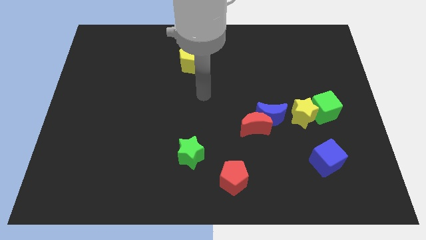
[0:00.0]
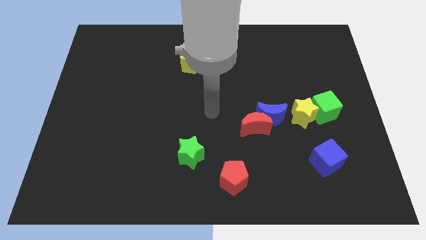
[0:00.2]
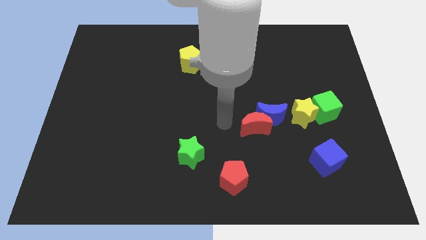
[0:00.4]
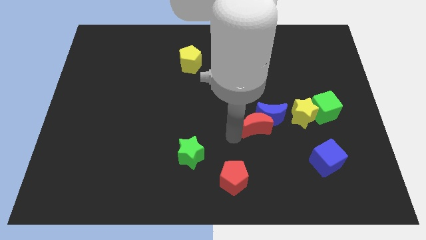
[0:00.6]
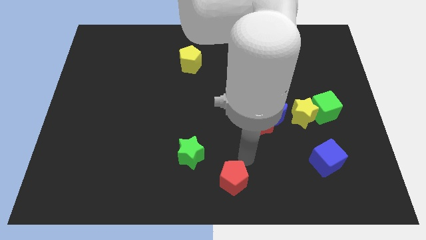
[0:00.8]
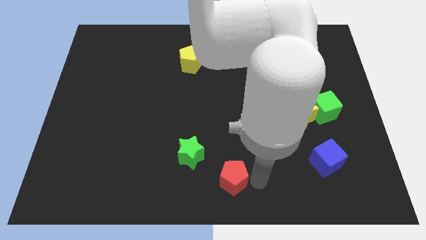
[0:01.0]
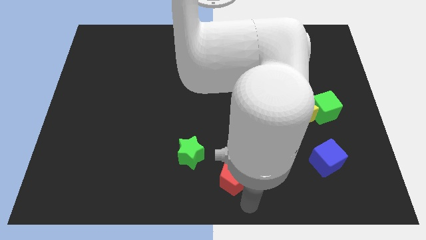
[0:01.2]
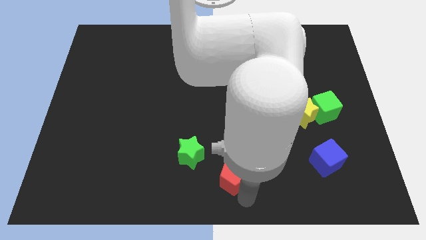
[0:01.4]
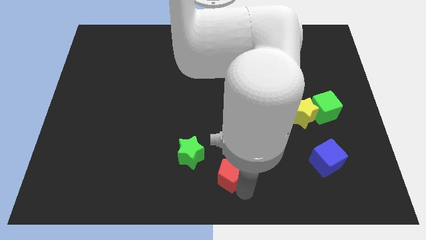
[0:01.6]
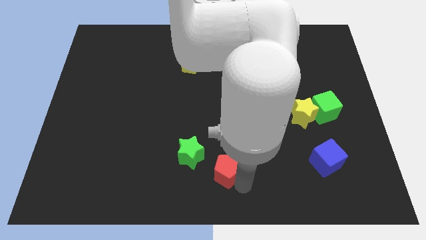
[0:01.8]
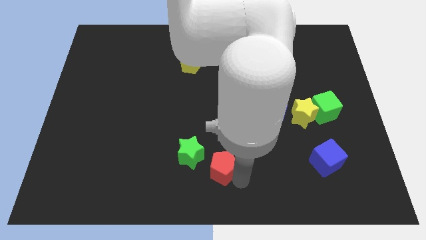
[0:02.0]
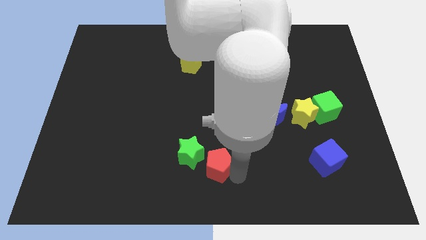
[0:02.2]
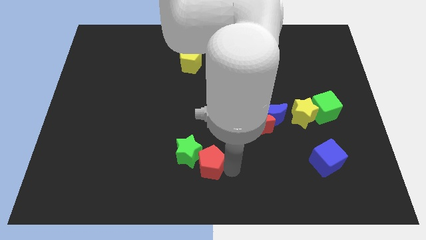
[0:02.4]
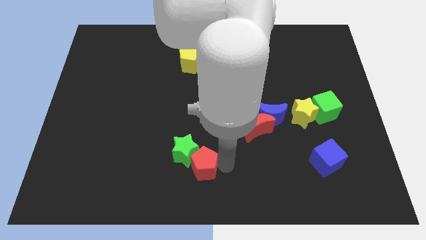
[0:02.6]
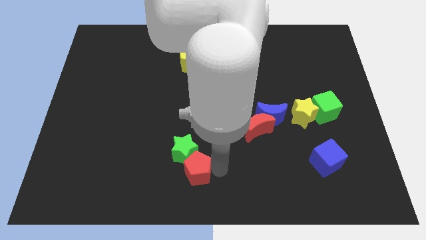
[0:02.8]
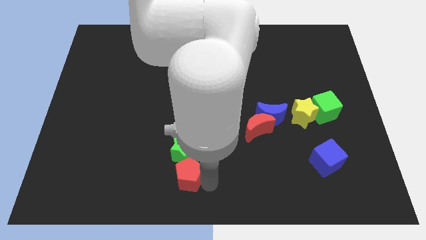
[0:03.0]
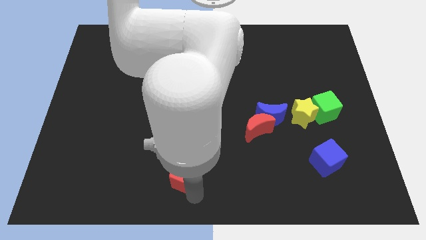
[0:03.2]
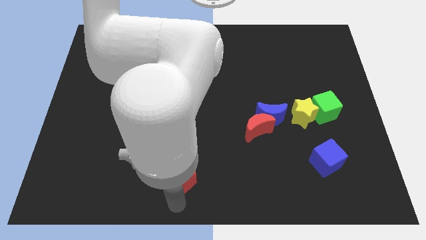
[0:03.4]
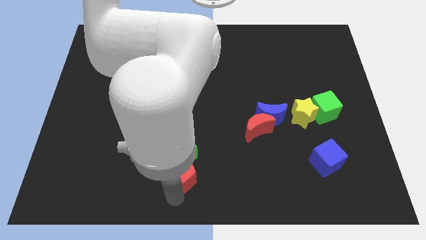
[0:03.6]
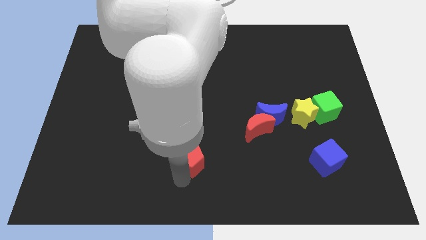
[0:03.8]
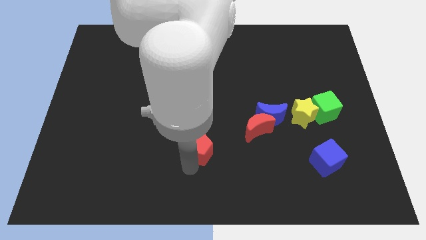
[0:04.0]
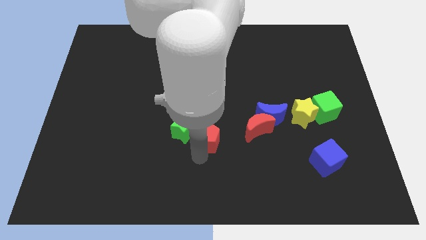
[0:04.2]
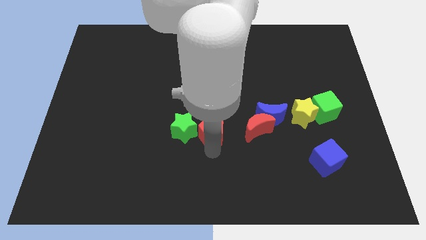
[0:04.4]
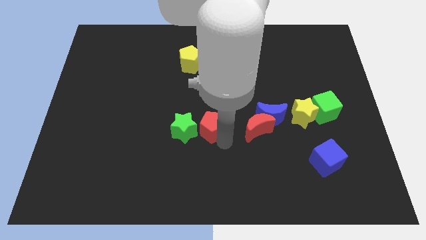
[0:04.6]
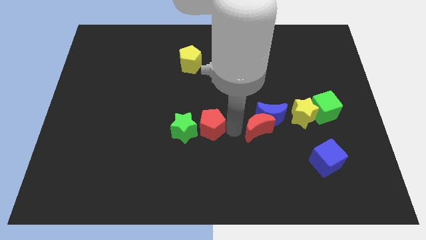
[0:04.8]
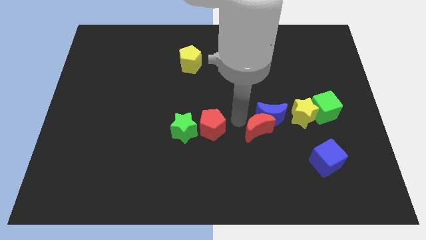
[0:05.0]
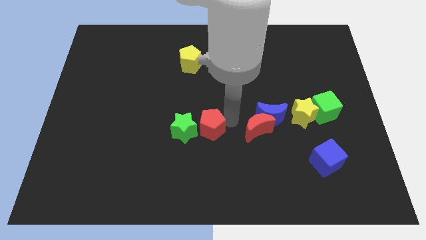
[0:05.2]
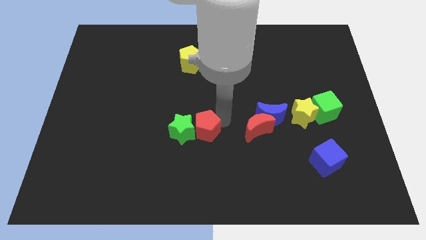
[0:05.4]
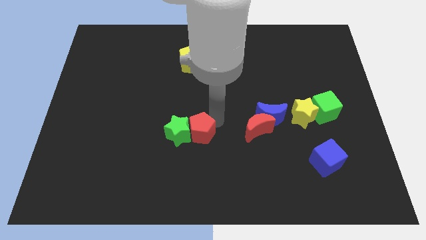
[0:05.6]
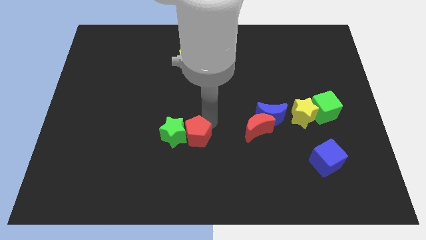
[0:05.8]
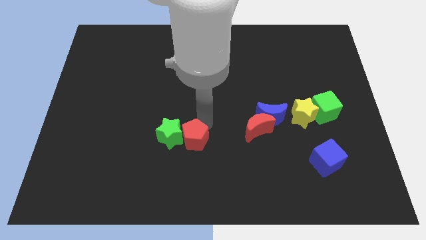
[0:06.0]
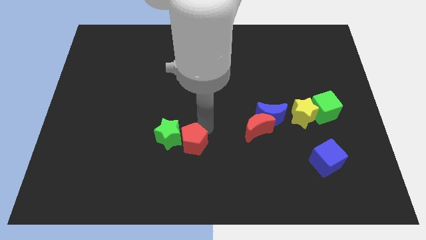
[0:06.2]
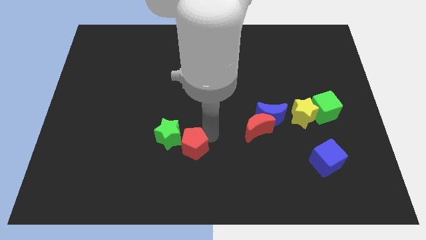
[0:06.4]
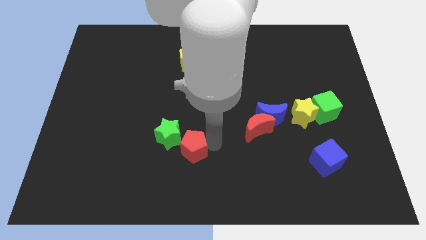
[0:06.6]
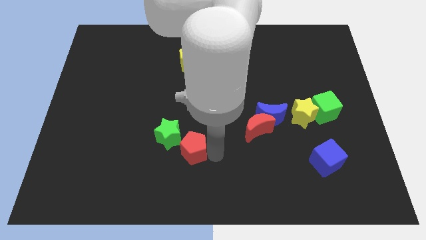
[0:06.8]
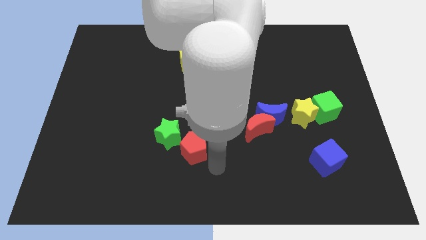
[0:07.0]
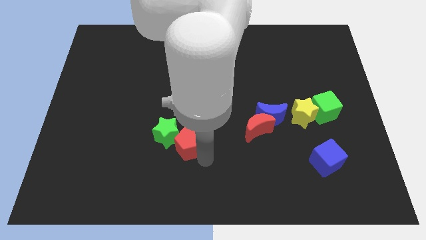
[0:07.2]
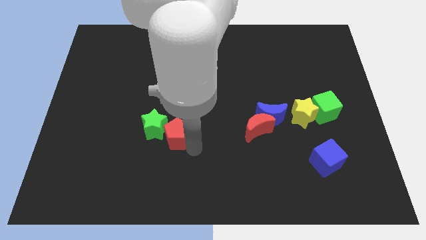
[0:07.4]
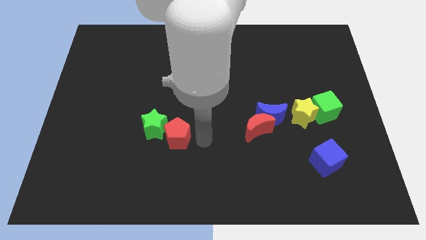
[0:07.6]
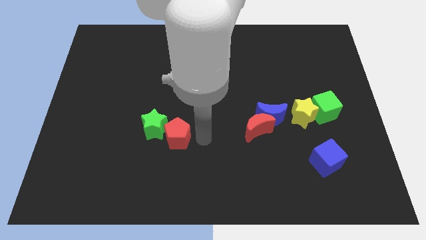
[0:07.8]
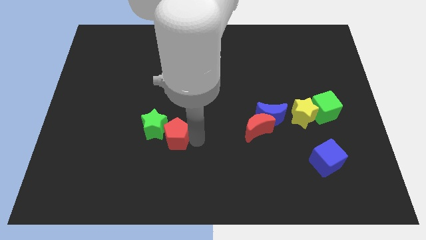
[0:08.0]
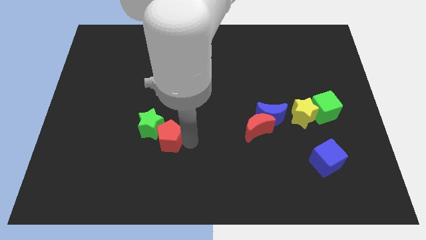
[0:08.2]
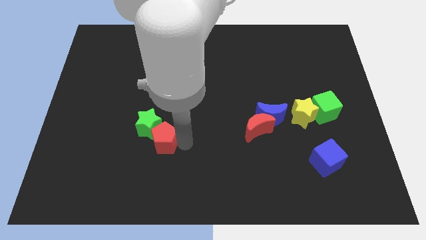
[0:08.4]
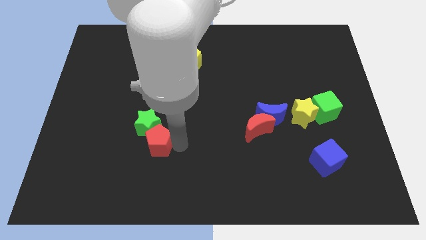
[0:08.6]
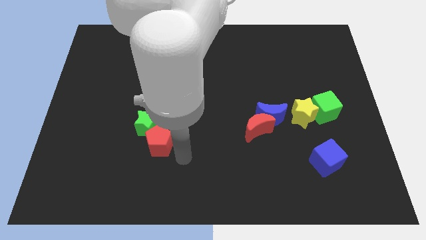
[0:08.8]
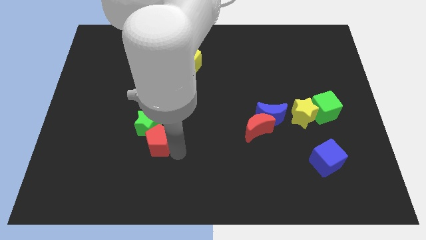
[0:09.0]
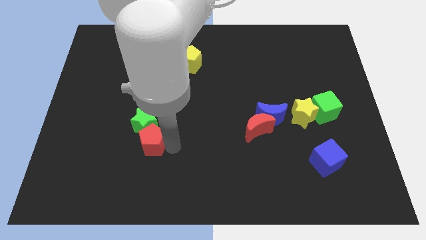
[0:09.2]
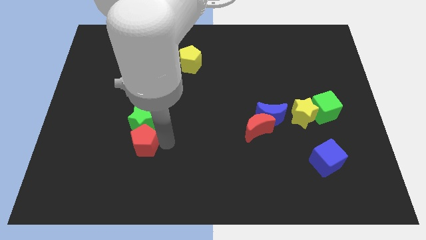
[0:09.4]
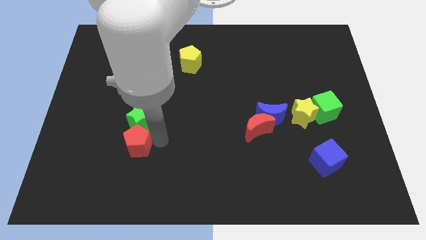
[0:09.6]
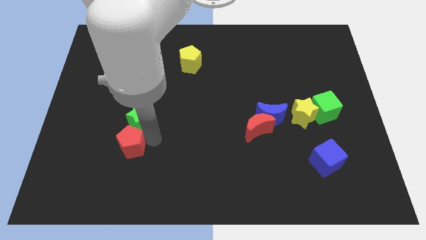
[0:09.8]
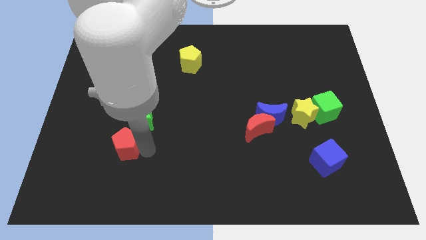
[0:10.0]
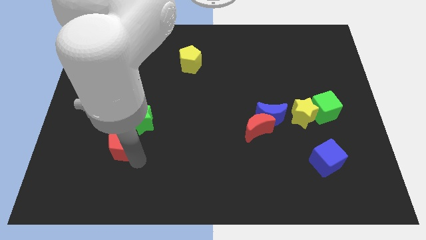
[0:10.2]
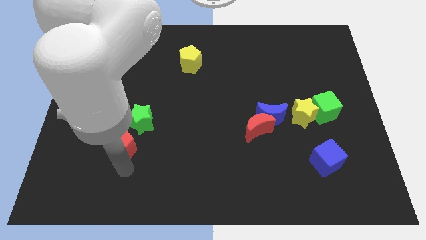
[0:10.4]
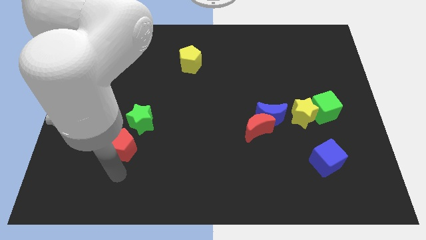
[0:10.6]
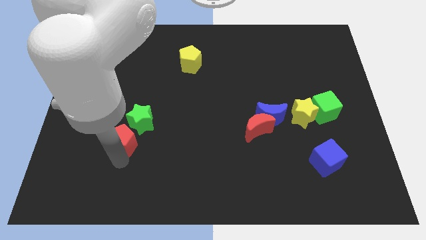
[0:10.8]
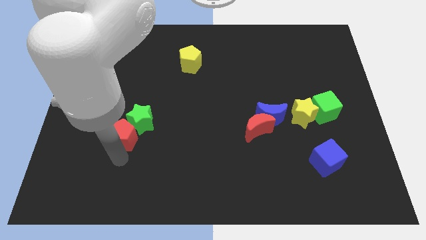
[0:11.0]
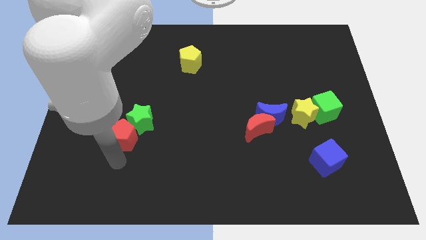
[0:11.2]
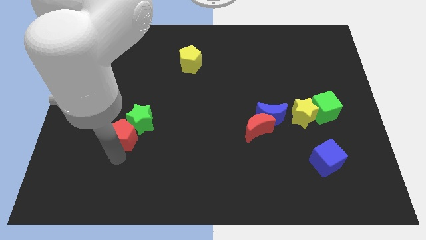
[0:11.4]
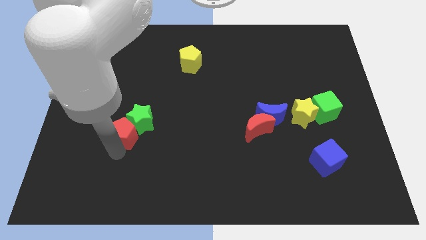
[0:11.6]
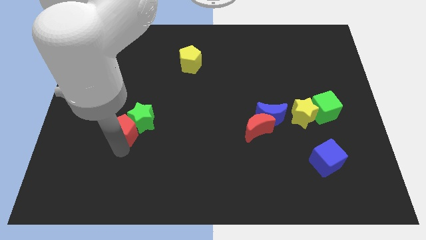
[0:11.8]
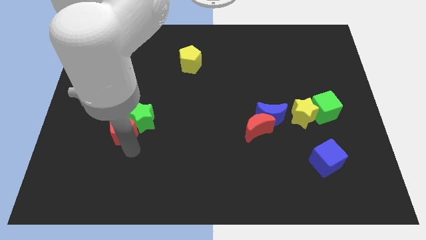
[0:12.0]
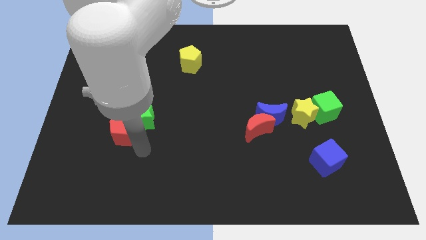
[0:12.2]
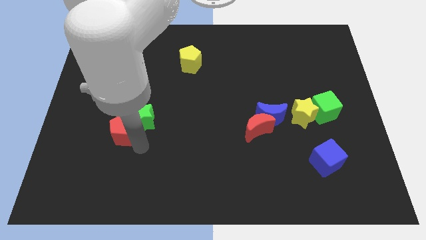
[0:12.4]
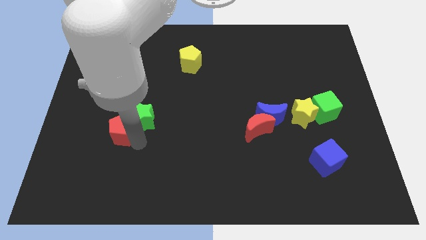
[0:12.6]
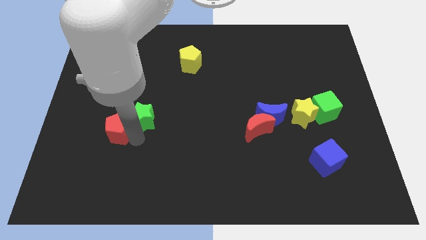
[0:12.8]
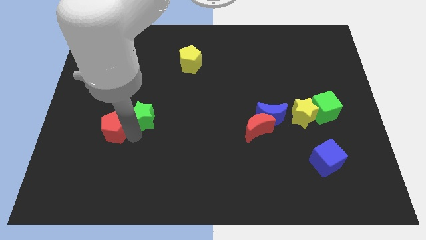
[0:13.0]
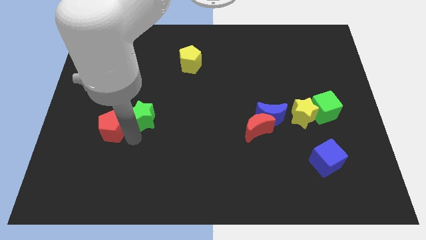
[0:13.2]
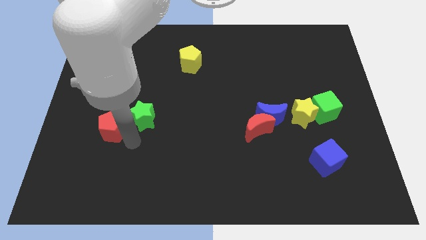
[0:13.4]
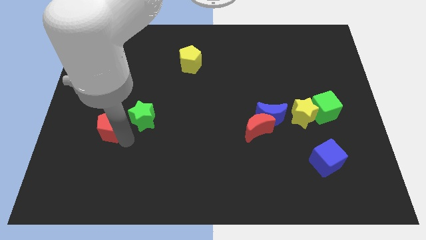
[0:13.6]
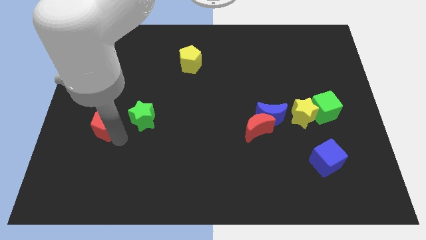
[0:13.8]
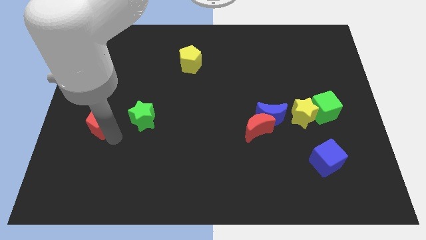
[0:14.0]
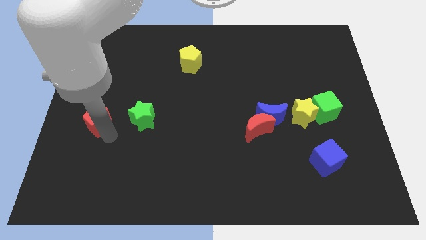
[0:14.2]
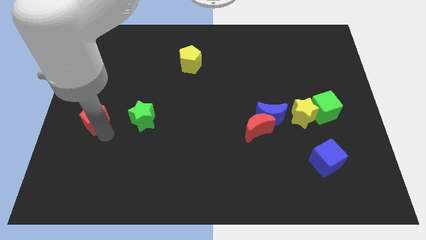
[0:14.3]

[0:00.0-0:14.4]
move the red pentagon to the left side of the board
